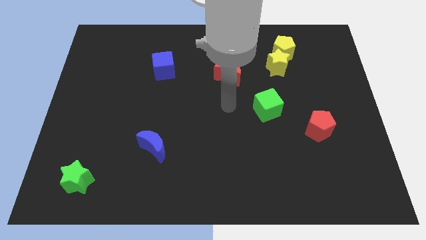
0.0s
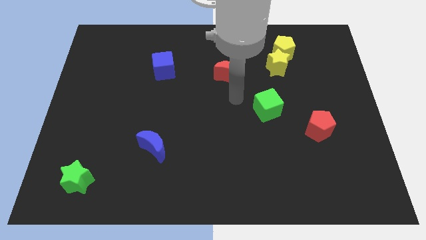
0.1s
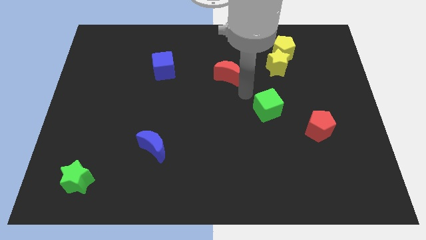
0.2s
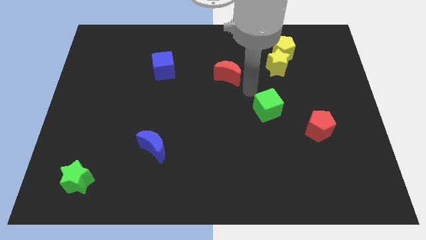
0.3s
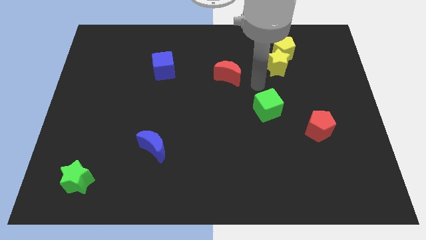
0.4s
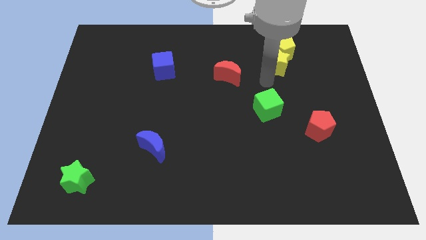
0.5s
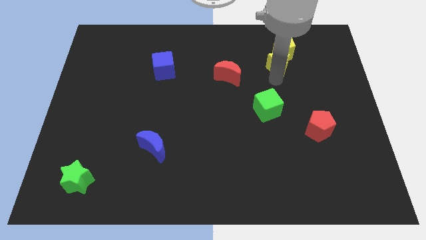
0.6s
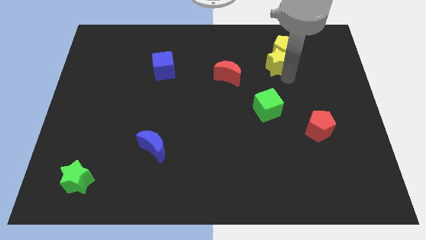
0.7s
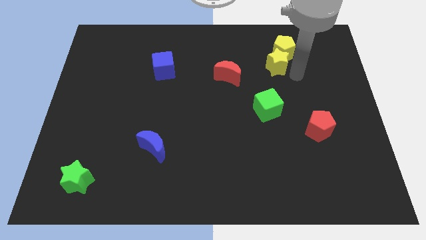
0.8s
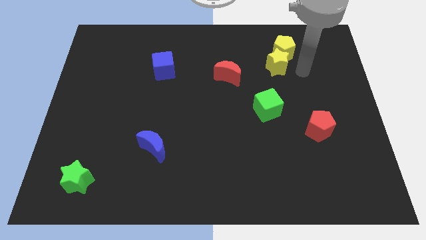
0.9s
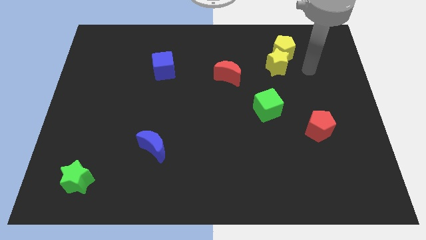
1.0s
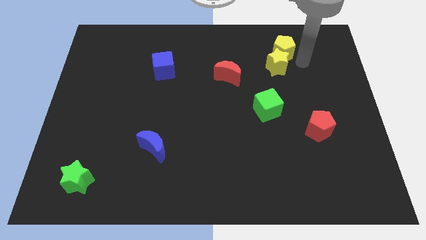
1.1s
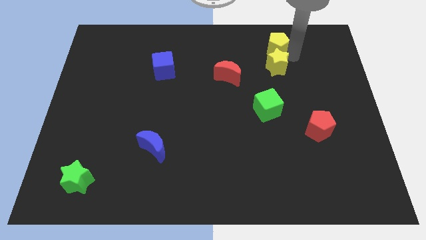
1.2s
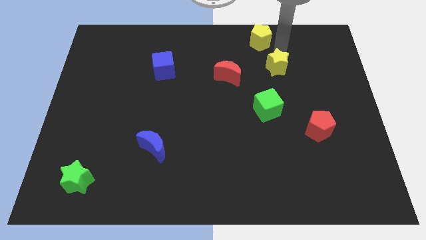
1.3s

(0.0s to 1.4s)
pull the yellow star apart from the yellow pentagon

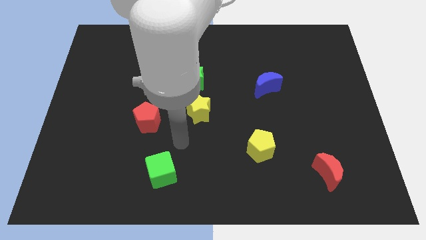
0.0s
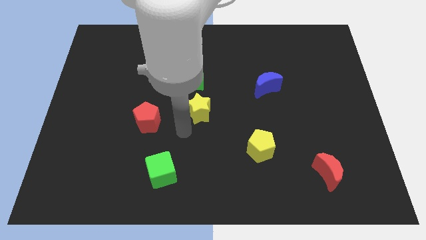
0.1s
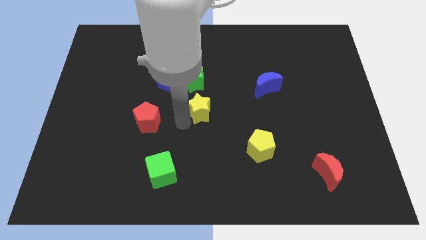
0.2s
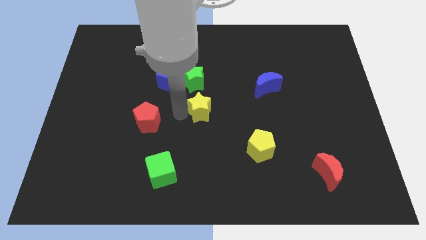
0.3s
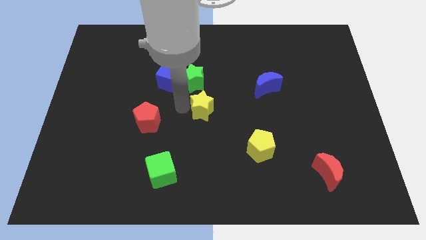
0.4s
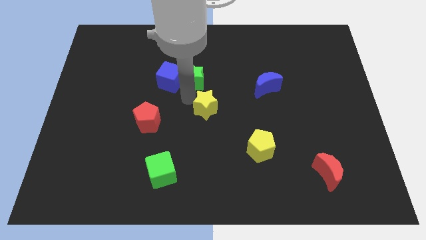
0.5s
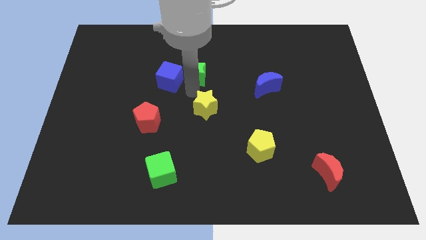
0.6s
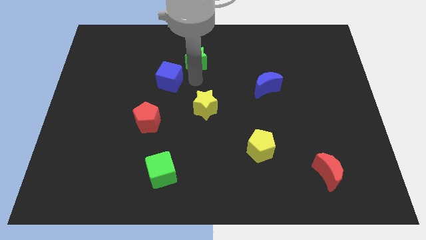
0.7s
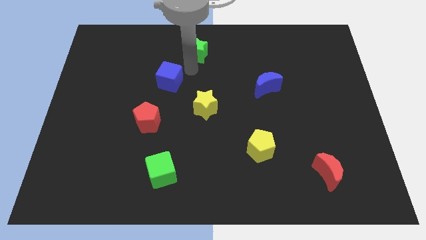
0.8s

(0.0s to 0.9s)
pull the blue cube apart from the green star

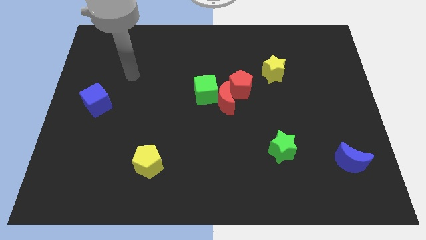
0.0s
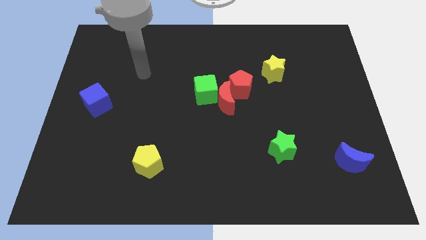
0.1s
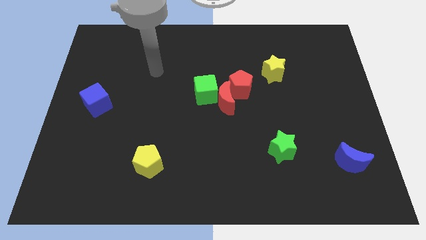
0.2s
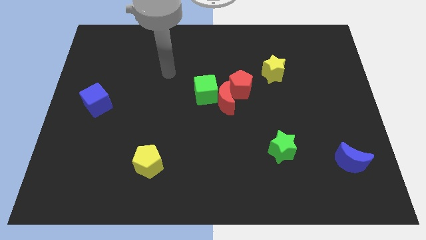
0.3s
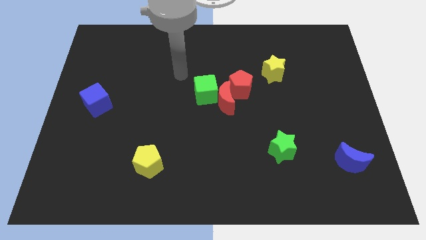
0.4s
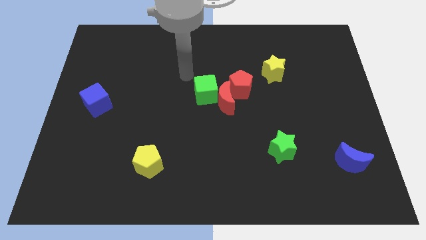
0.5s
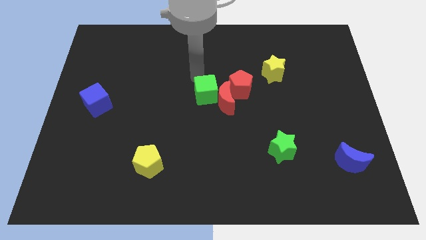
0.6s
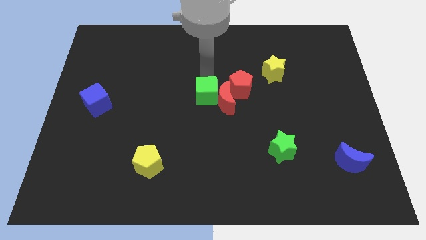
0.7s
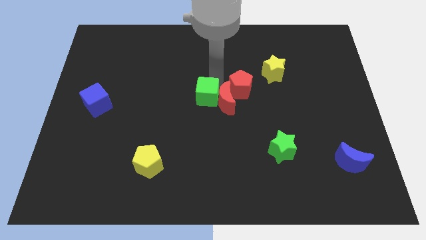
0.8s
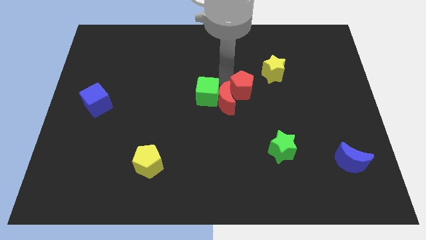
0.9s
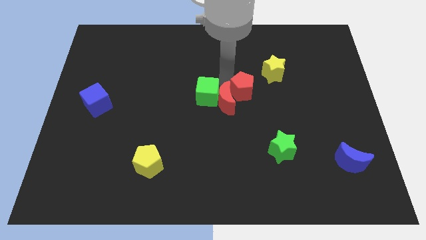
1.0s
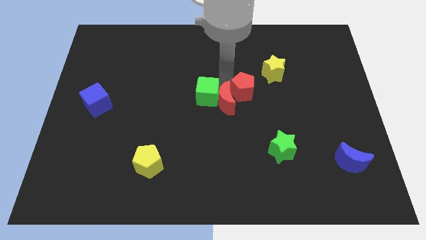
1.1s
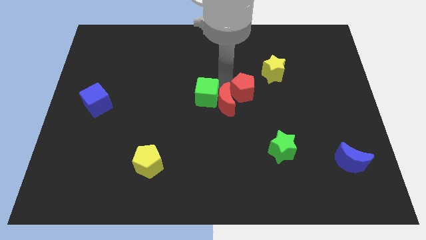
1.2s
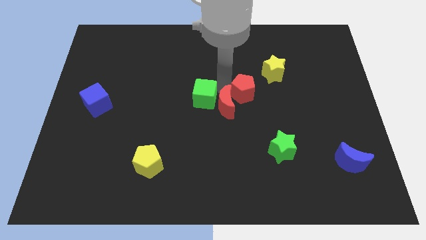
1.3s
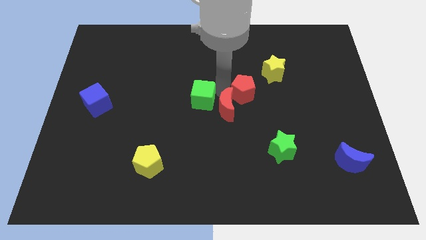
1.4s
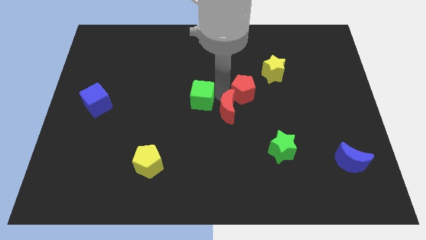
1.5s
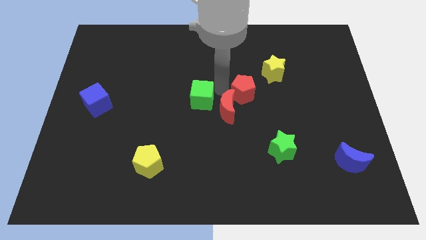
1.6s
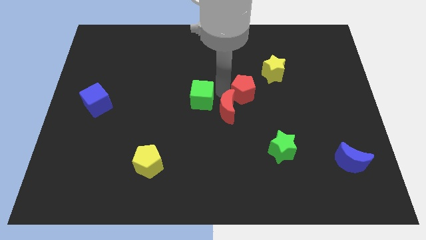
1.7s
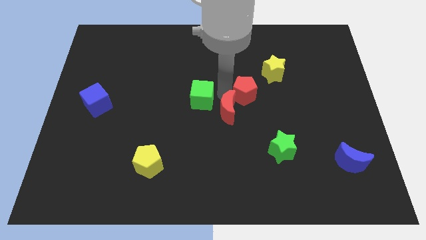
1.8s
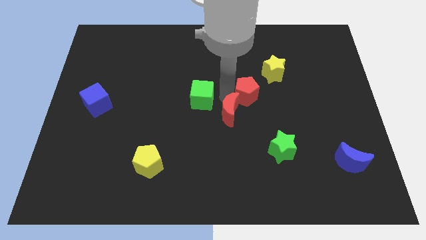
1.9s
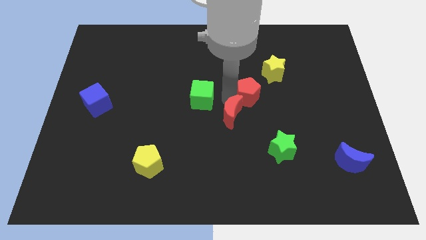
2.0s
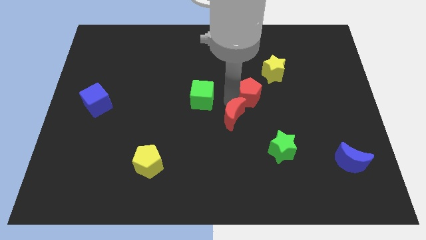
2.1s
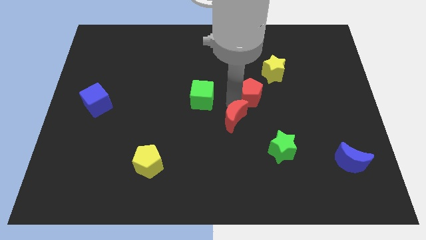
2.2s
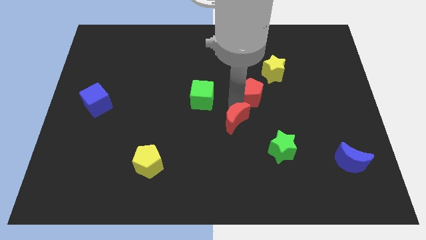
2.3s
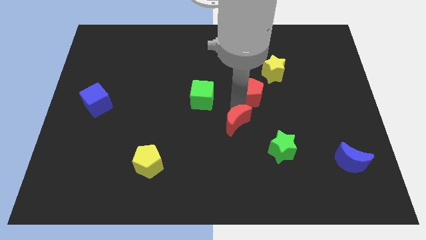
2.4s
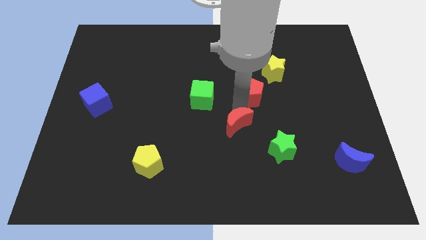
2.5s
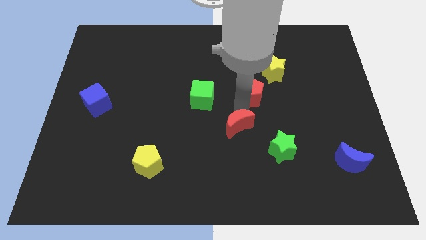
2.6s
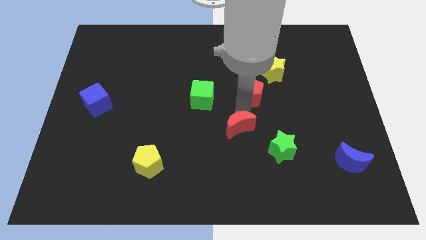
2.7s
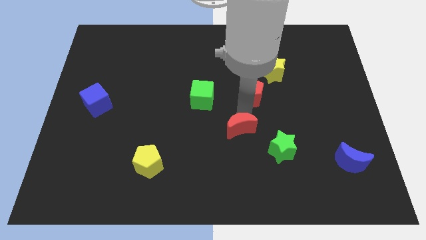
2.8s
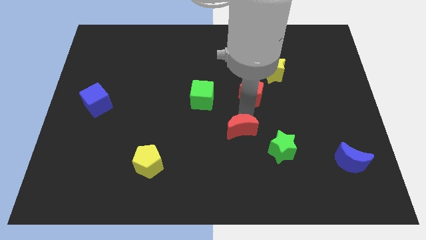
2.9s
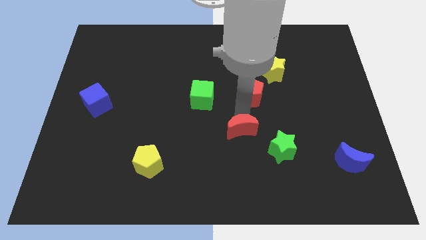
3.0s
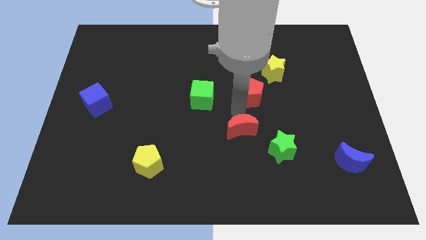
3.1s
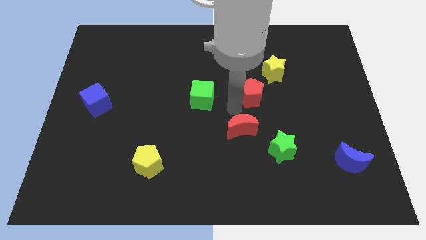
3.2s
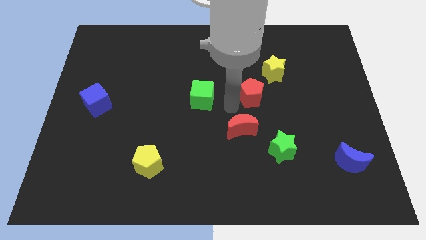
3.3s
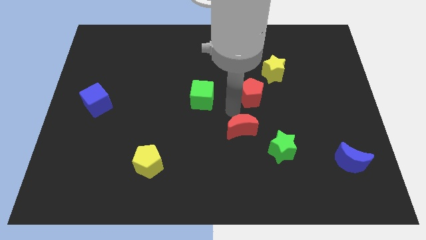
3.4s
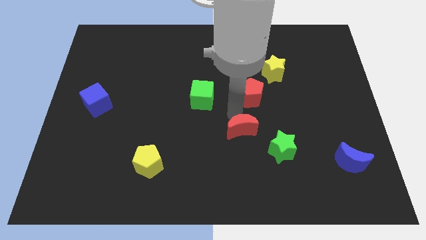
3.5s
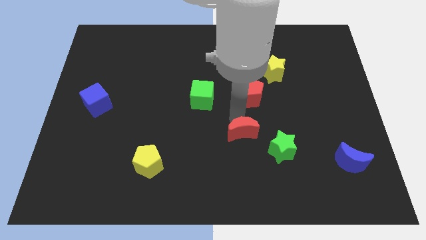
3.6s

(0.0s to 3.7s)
separate the red moon from the green cube and red pentagon

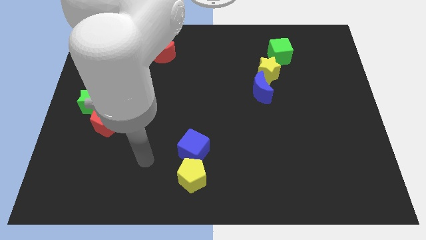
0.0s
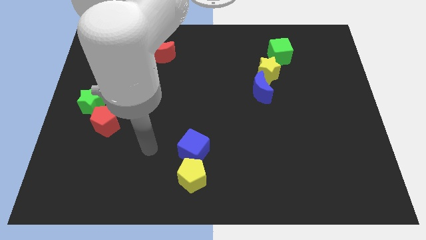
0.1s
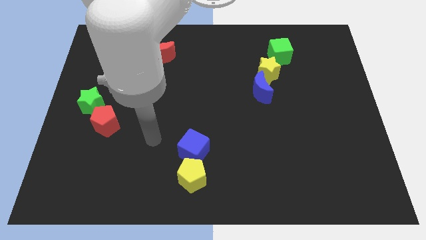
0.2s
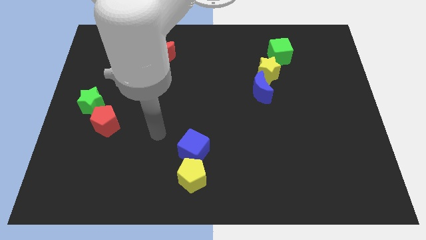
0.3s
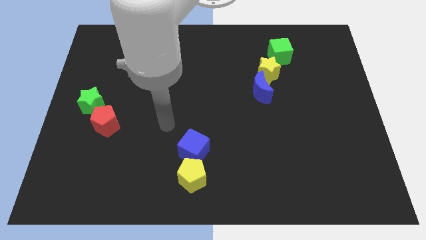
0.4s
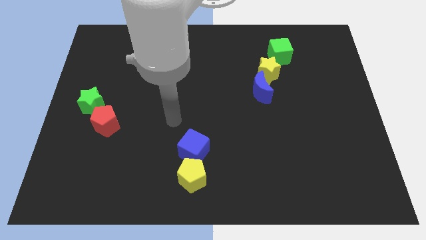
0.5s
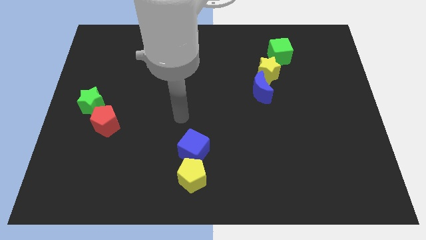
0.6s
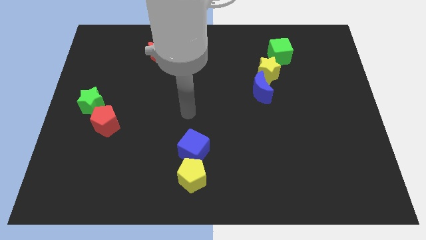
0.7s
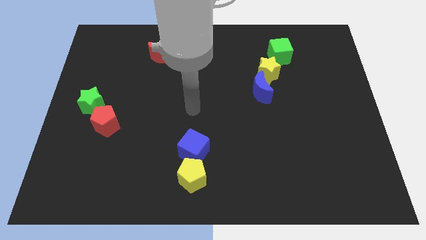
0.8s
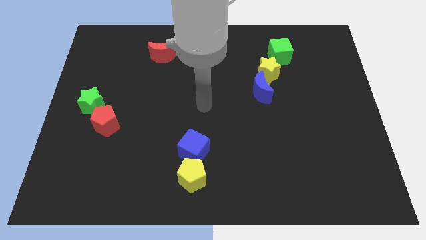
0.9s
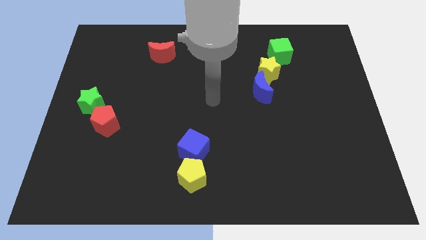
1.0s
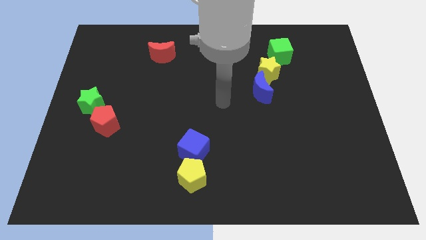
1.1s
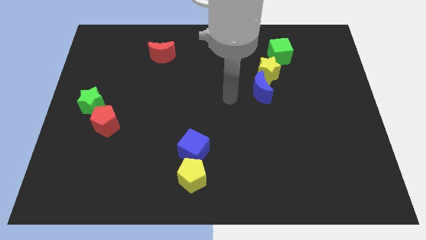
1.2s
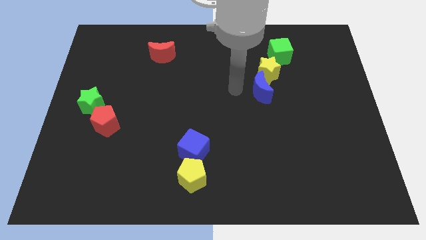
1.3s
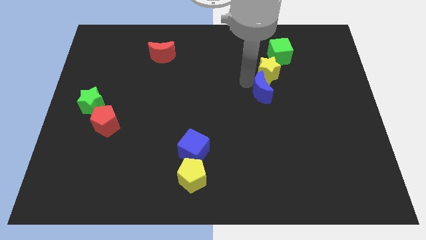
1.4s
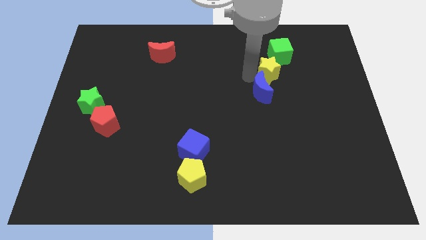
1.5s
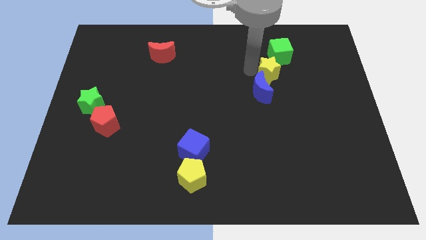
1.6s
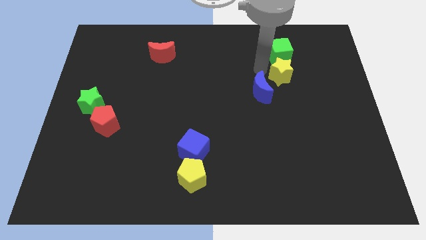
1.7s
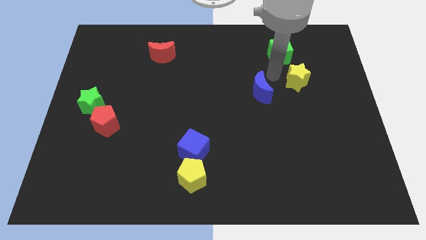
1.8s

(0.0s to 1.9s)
move the blue moon away from the yellow star

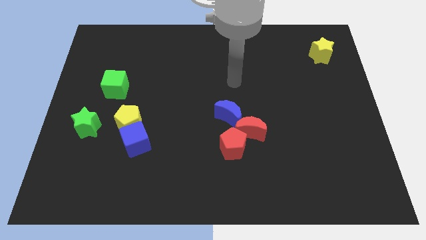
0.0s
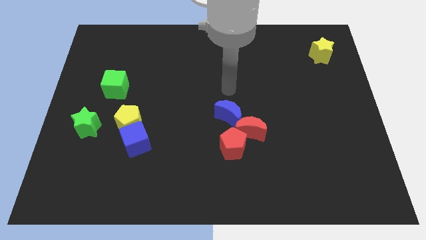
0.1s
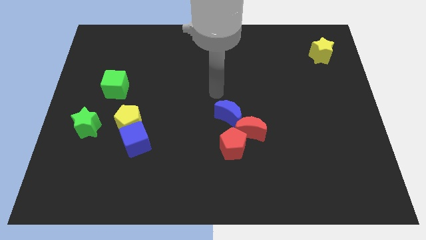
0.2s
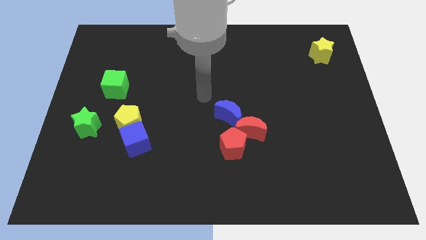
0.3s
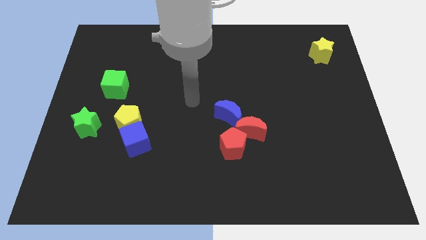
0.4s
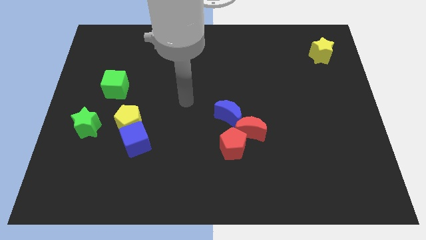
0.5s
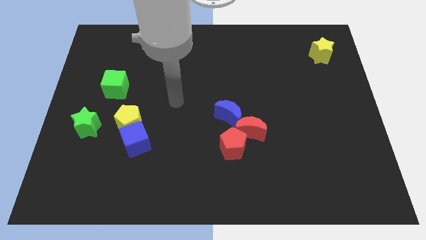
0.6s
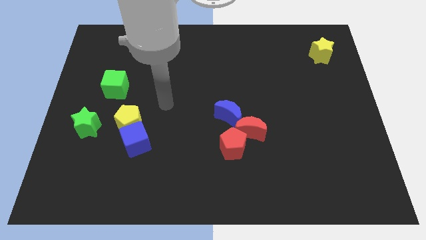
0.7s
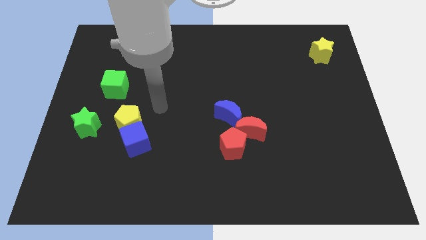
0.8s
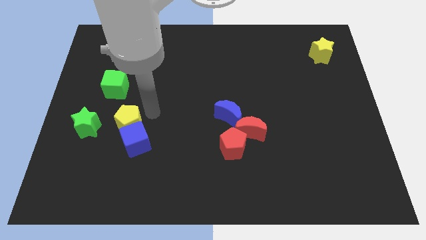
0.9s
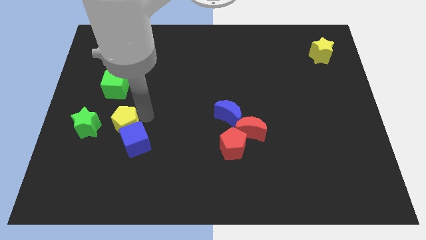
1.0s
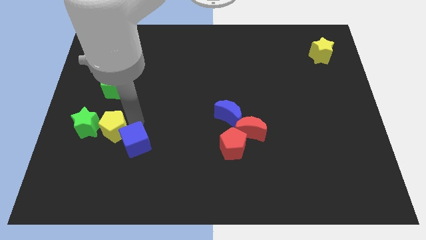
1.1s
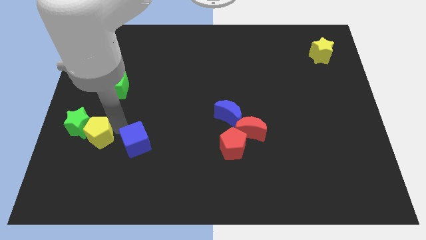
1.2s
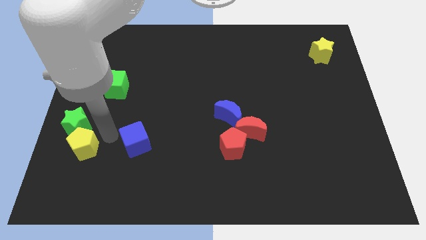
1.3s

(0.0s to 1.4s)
pull the blue cube apart from the yellow pentagon
